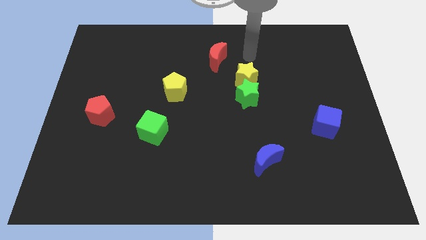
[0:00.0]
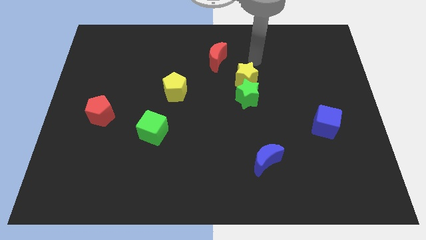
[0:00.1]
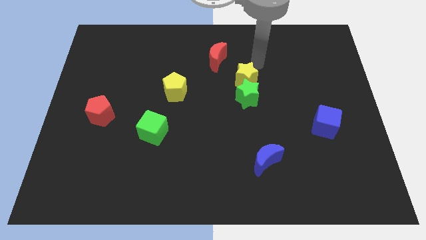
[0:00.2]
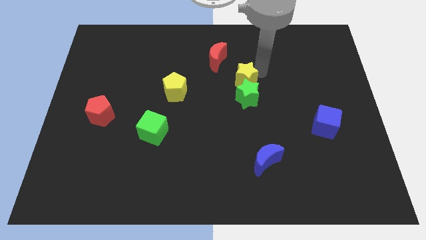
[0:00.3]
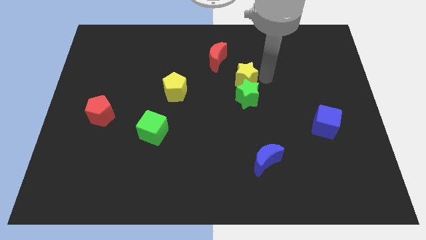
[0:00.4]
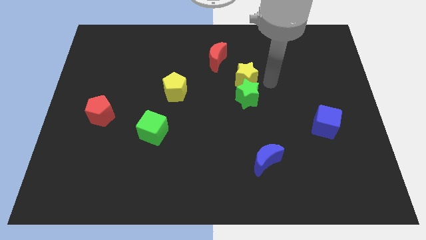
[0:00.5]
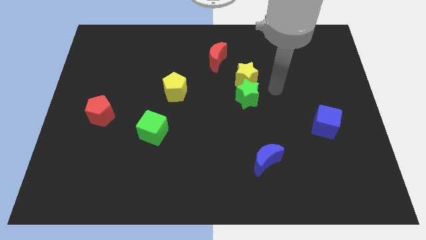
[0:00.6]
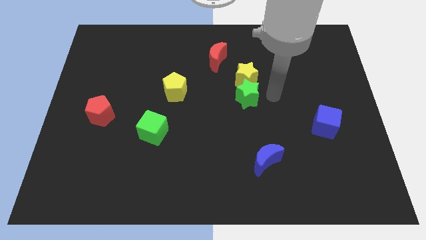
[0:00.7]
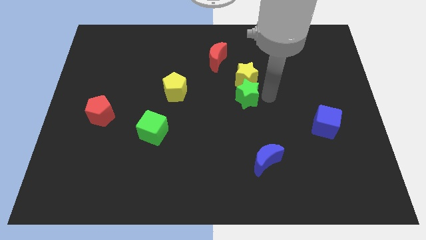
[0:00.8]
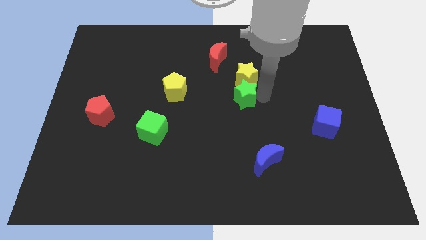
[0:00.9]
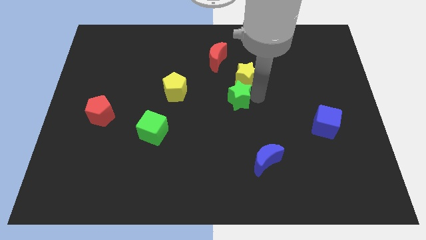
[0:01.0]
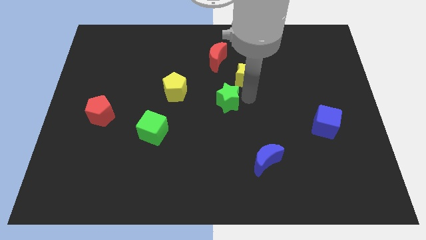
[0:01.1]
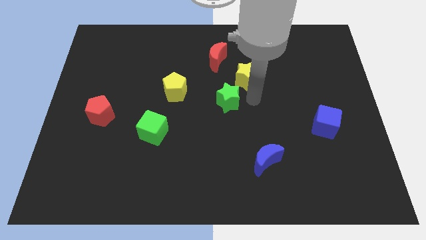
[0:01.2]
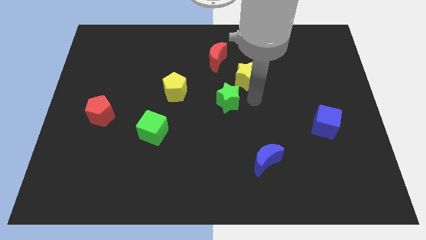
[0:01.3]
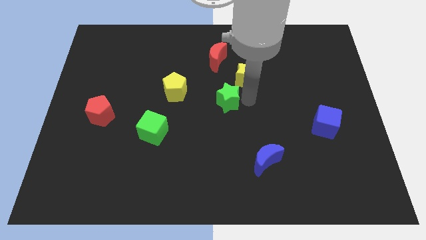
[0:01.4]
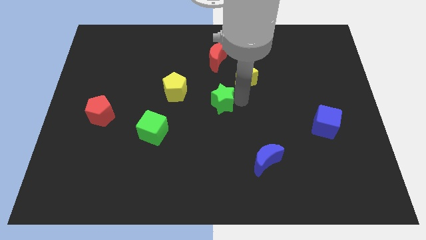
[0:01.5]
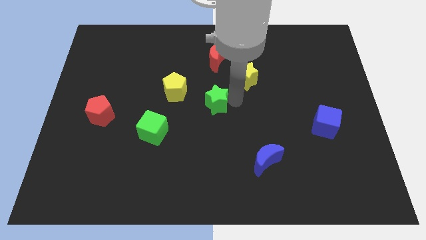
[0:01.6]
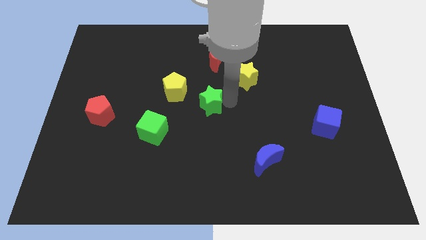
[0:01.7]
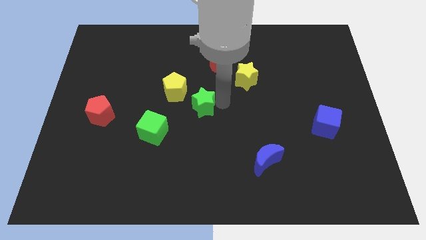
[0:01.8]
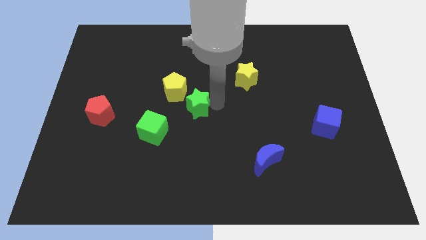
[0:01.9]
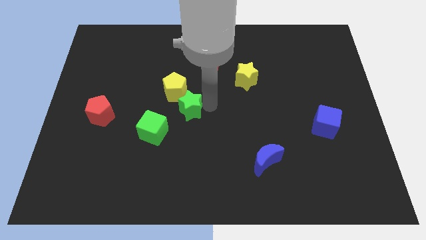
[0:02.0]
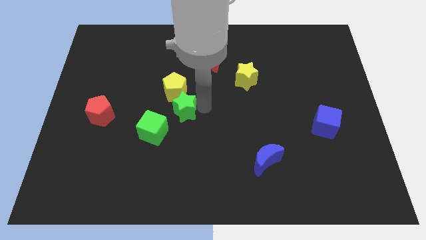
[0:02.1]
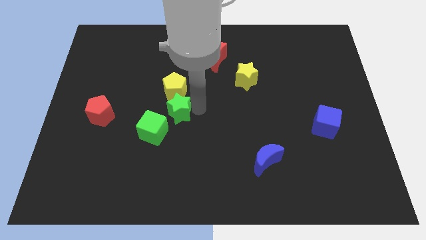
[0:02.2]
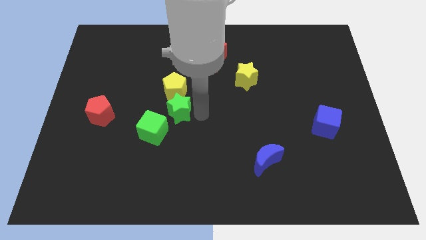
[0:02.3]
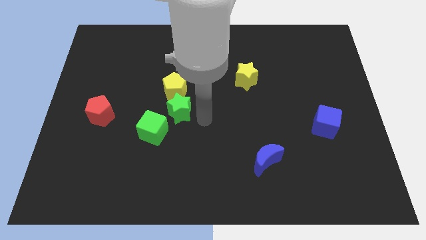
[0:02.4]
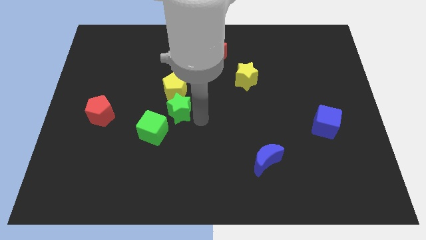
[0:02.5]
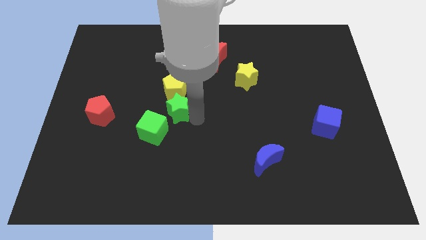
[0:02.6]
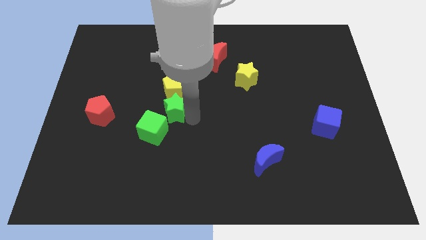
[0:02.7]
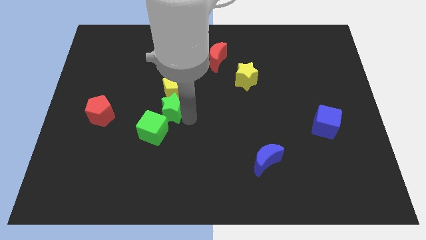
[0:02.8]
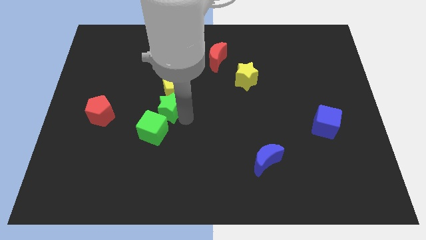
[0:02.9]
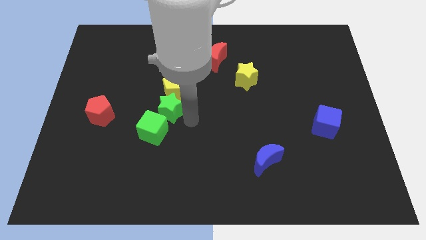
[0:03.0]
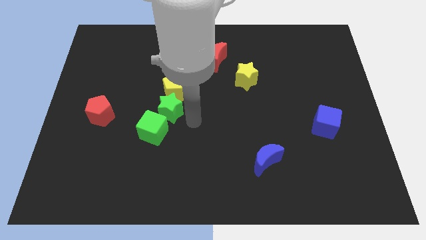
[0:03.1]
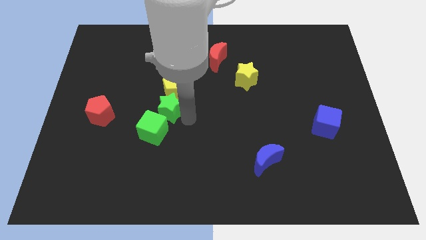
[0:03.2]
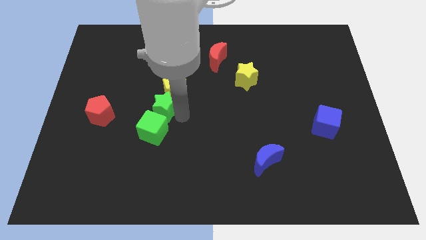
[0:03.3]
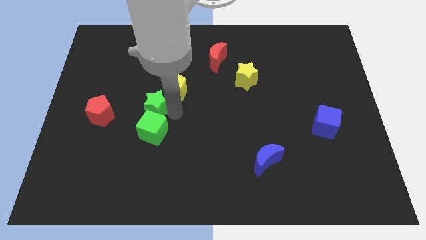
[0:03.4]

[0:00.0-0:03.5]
push the green star to the left

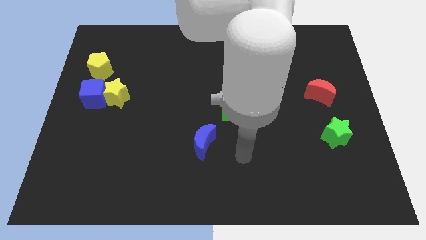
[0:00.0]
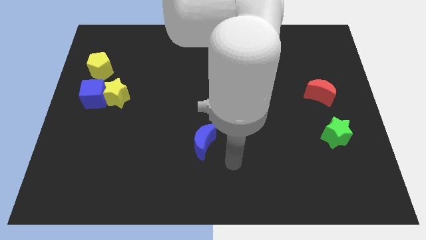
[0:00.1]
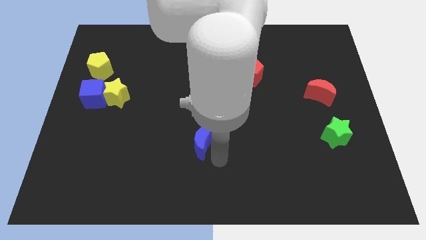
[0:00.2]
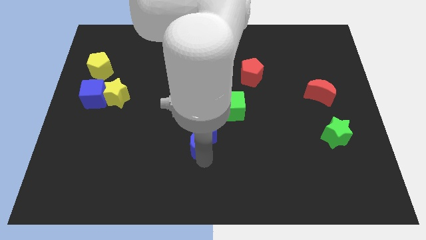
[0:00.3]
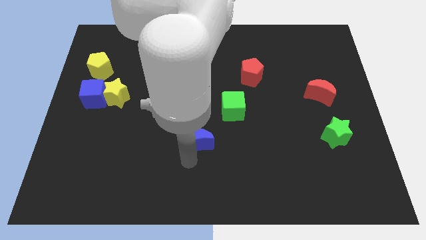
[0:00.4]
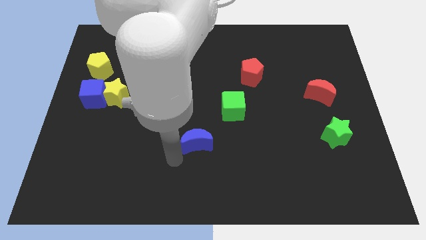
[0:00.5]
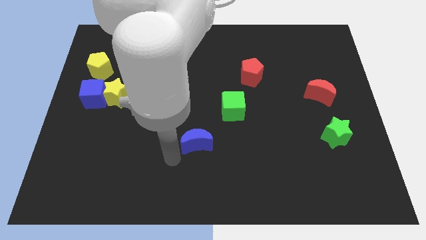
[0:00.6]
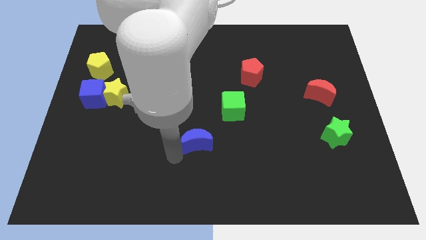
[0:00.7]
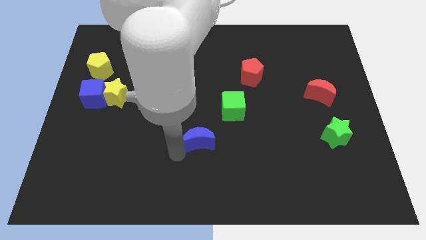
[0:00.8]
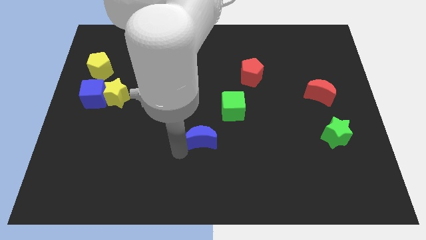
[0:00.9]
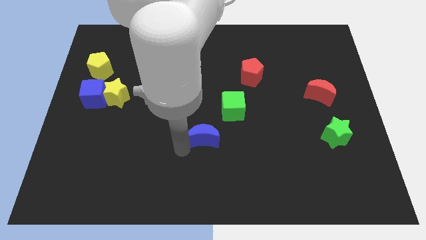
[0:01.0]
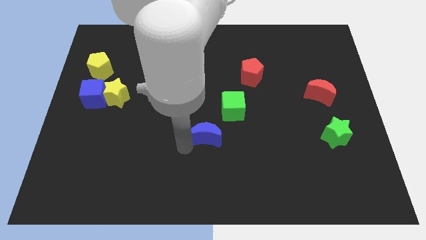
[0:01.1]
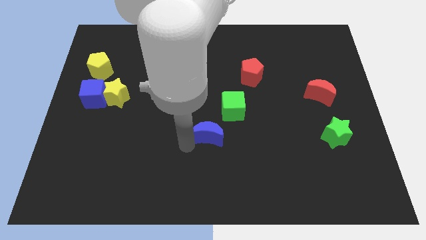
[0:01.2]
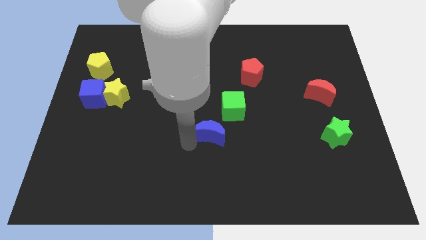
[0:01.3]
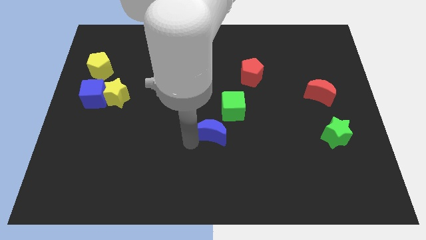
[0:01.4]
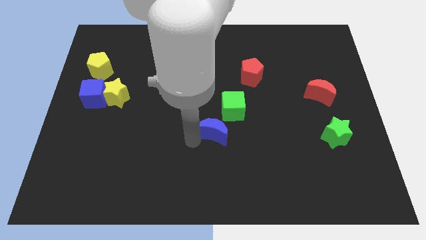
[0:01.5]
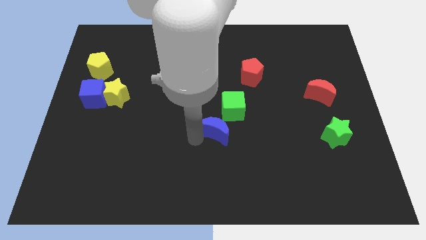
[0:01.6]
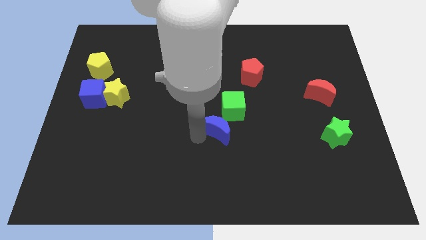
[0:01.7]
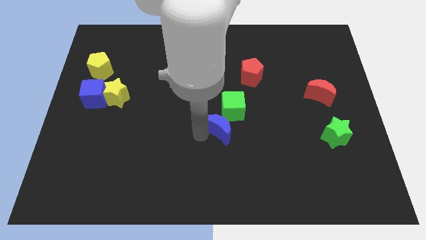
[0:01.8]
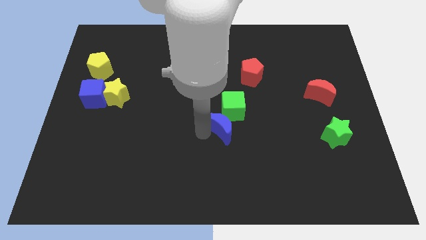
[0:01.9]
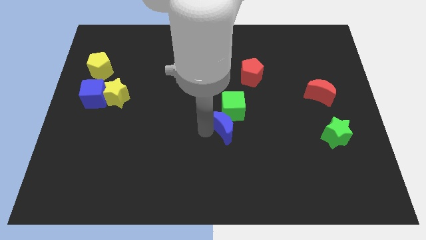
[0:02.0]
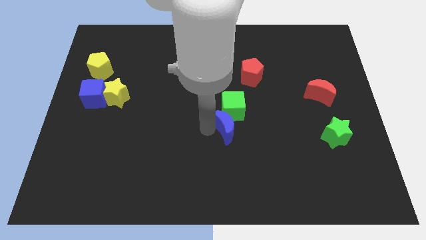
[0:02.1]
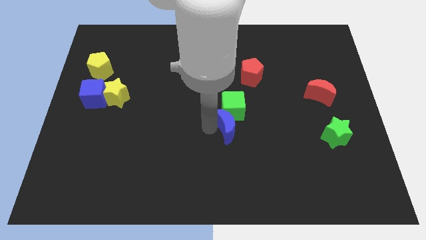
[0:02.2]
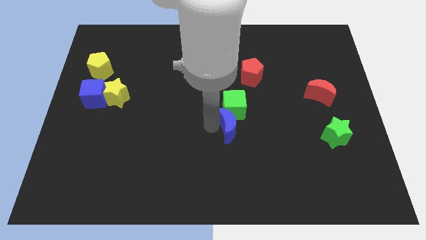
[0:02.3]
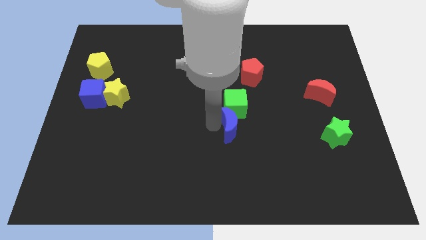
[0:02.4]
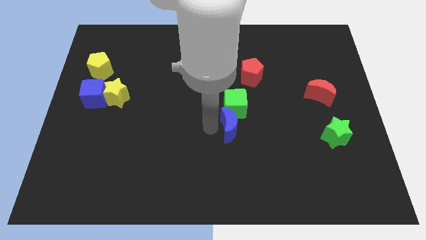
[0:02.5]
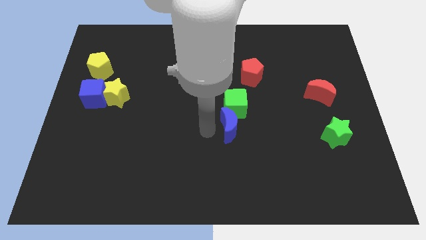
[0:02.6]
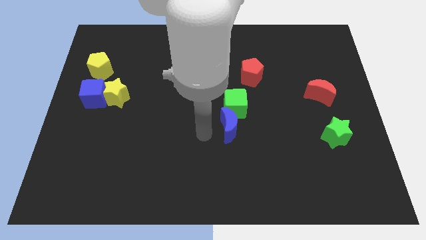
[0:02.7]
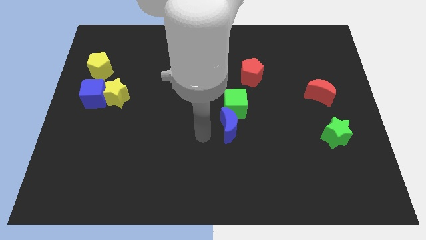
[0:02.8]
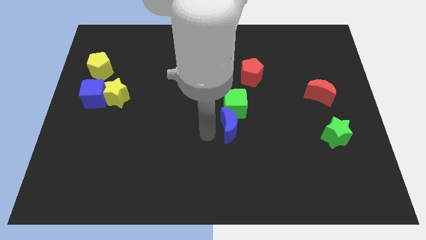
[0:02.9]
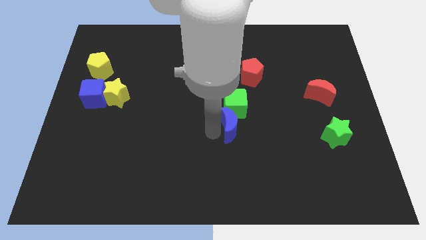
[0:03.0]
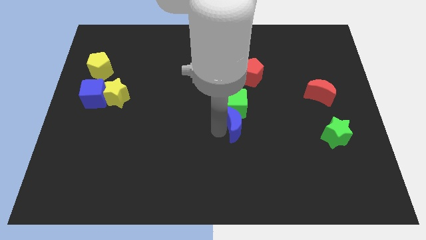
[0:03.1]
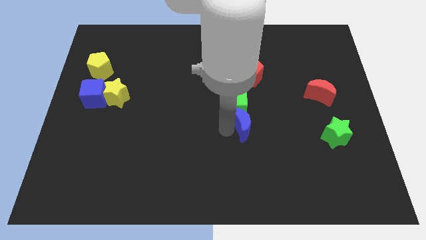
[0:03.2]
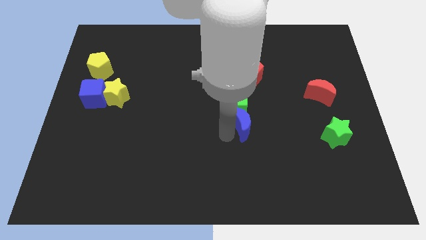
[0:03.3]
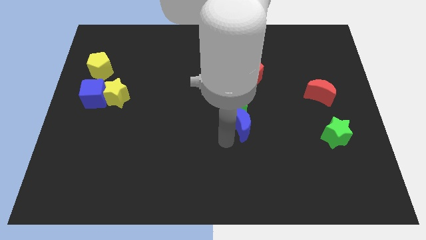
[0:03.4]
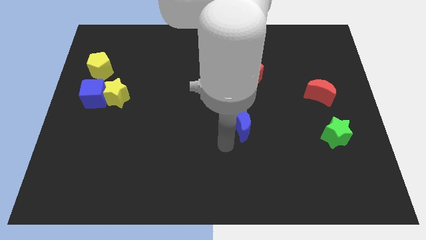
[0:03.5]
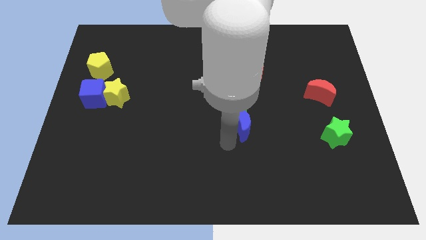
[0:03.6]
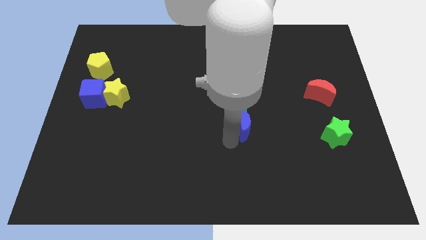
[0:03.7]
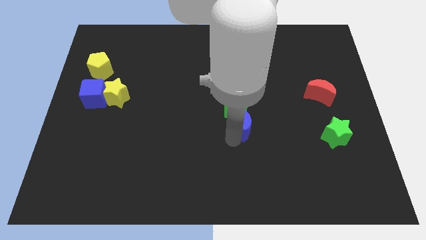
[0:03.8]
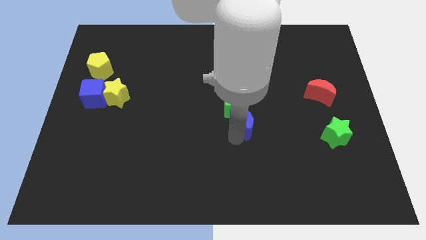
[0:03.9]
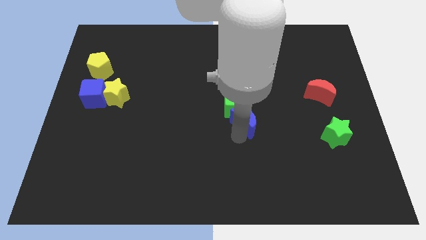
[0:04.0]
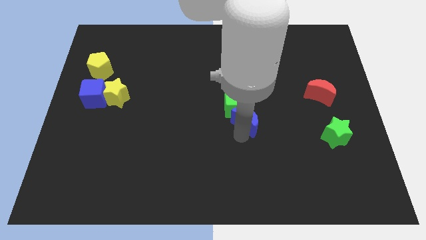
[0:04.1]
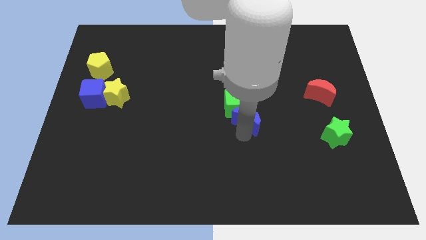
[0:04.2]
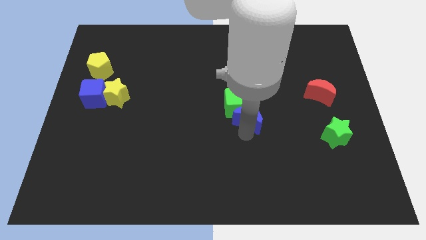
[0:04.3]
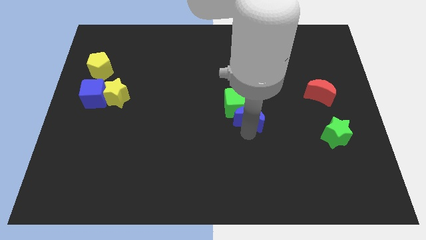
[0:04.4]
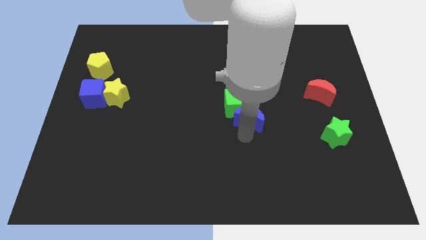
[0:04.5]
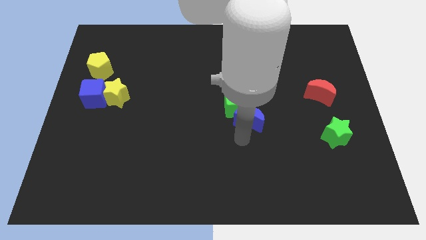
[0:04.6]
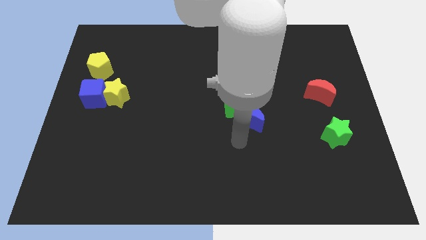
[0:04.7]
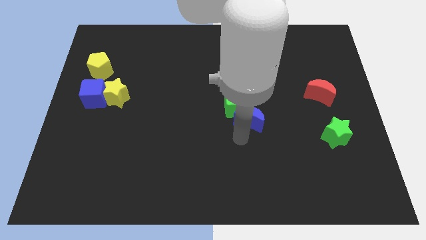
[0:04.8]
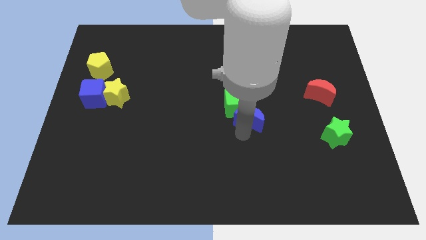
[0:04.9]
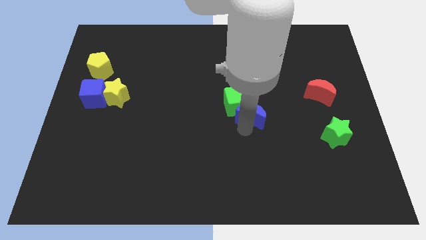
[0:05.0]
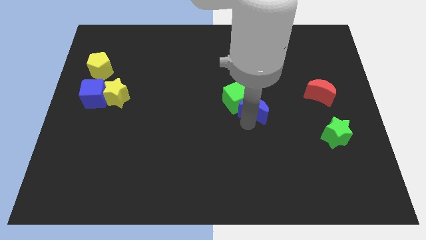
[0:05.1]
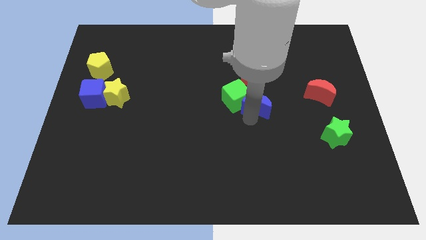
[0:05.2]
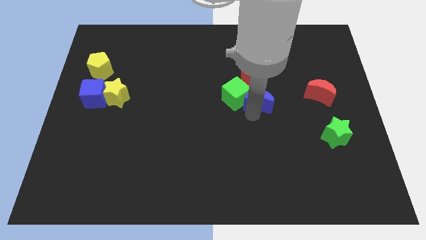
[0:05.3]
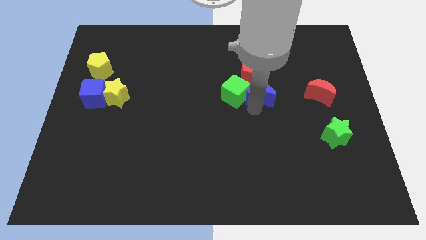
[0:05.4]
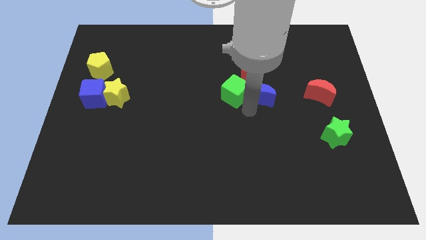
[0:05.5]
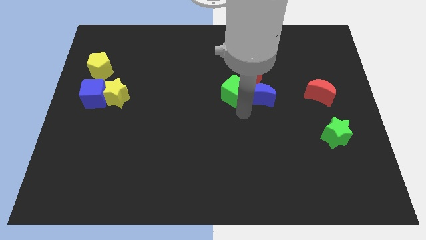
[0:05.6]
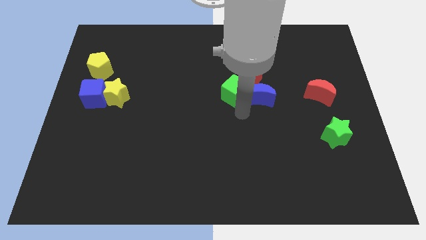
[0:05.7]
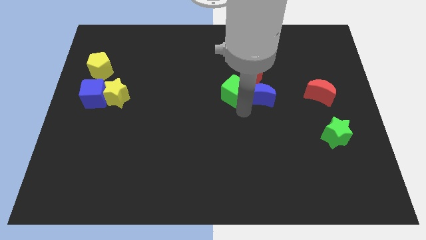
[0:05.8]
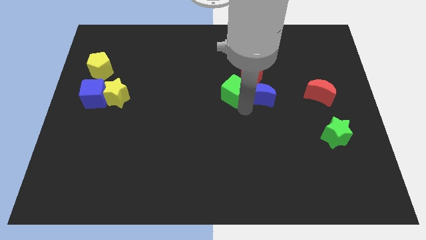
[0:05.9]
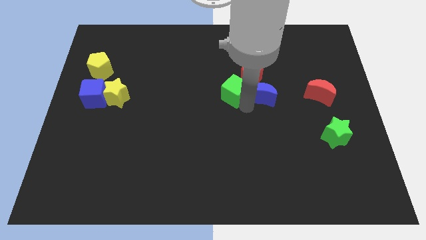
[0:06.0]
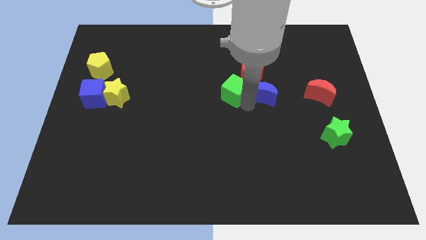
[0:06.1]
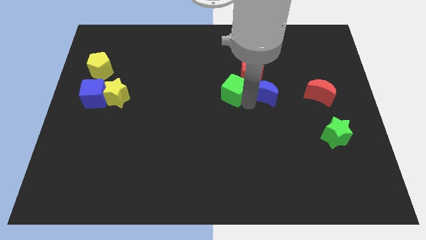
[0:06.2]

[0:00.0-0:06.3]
move the blue moon upwards and then to the right
